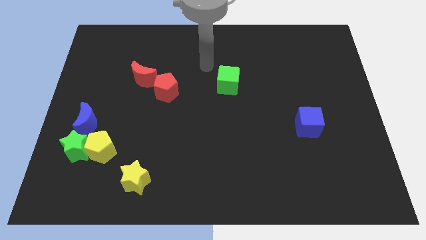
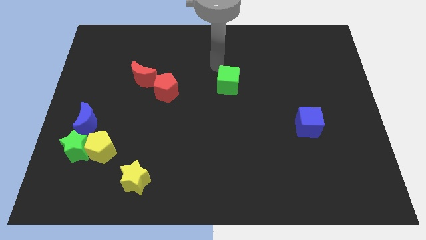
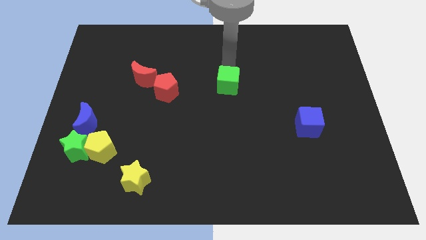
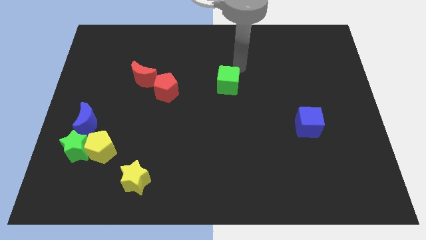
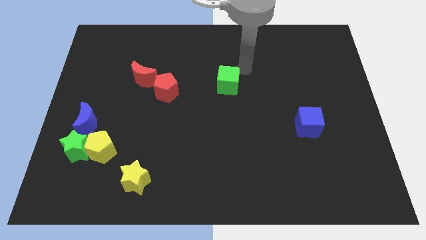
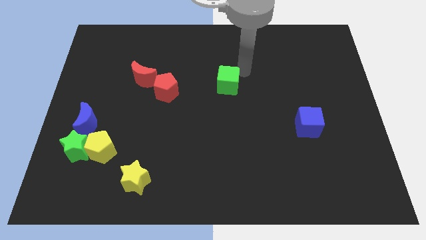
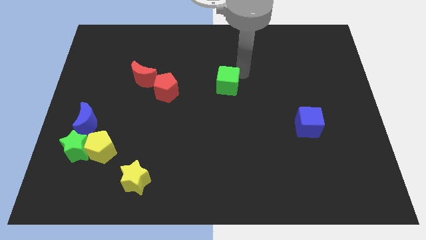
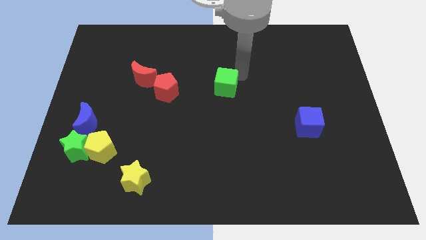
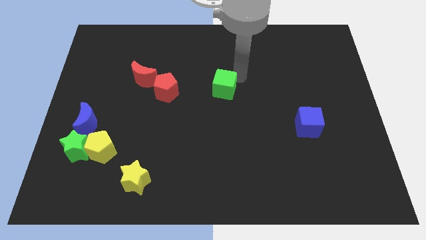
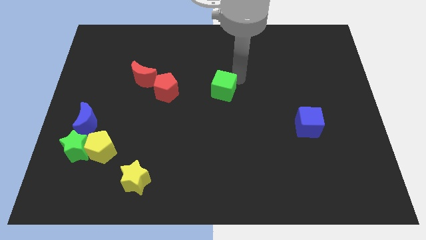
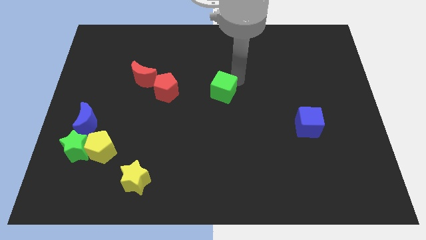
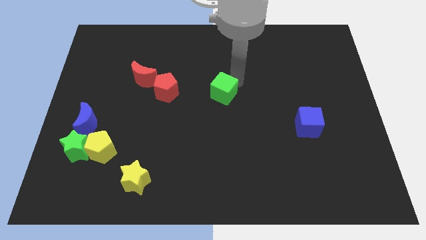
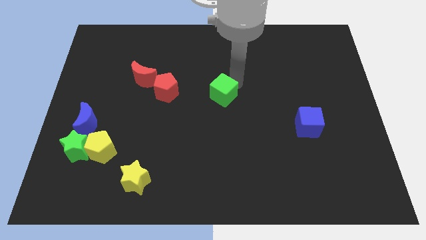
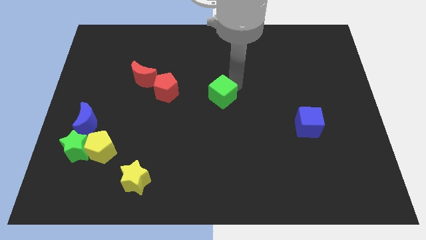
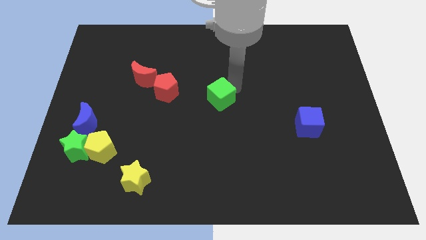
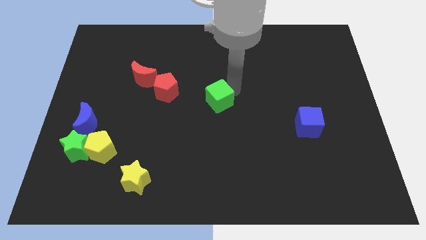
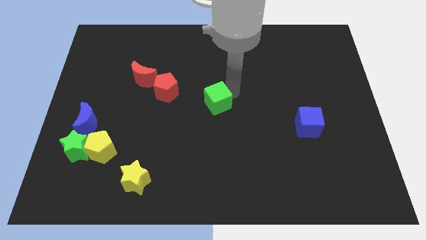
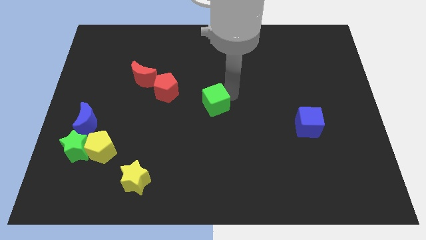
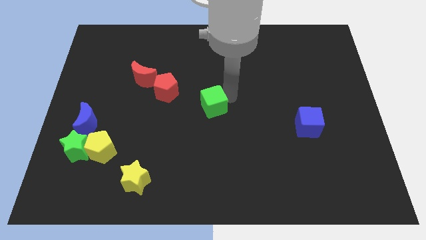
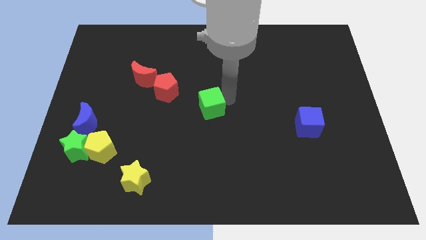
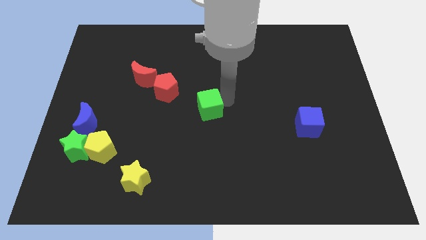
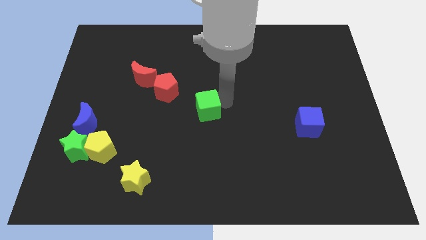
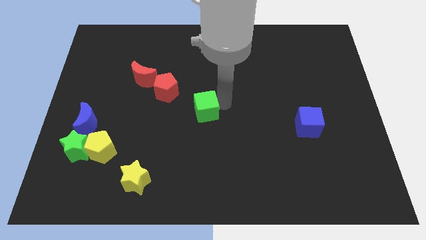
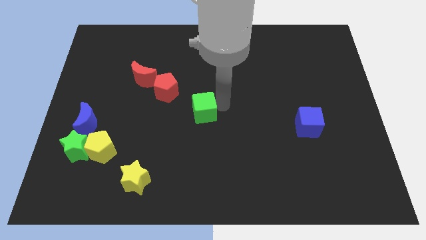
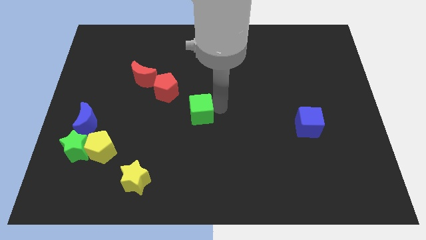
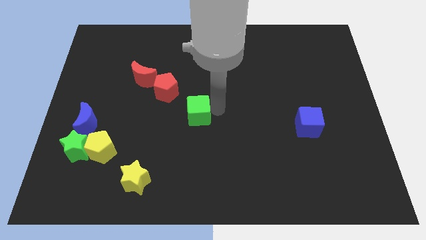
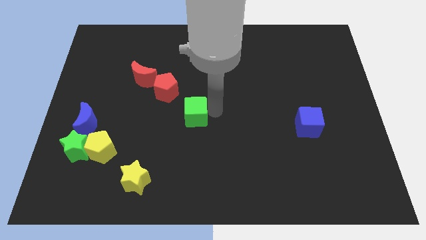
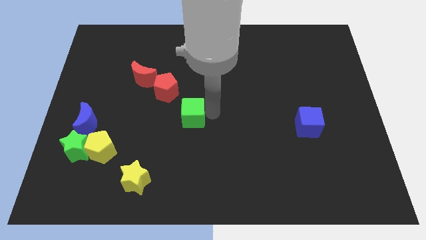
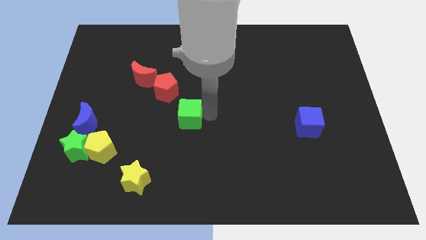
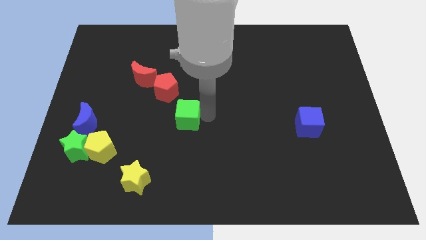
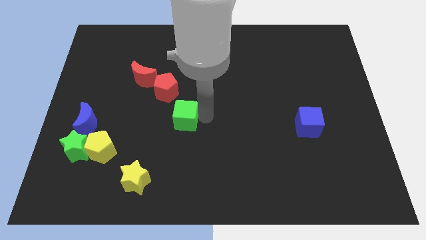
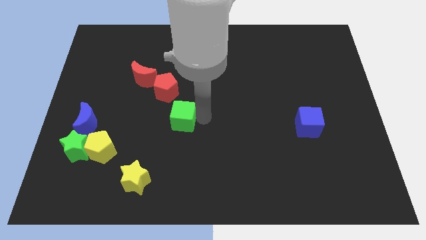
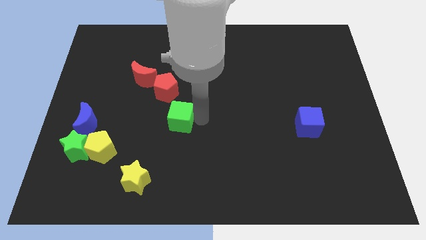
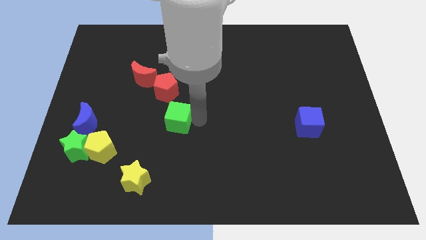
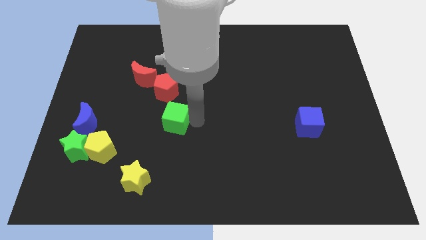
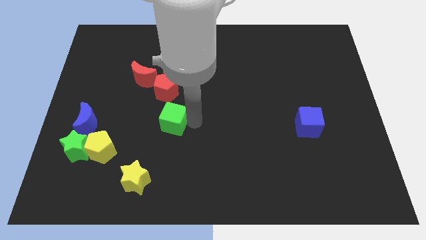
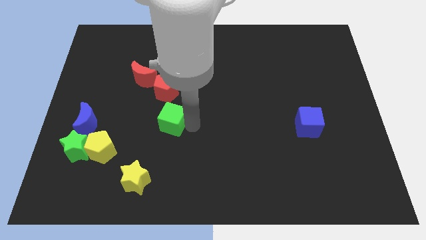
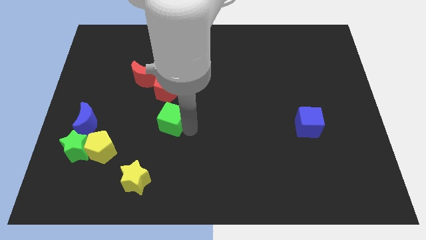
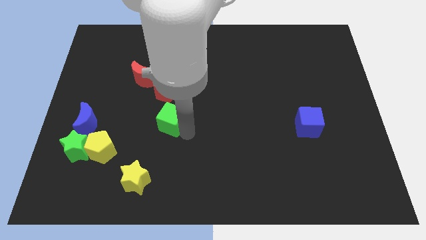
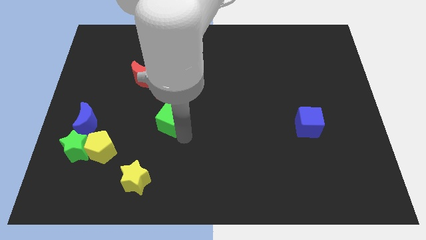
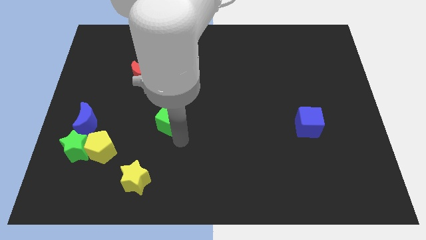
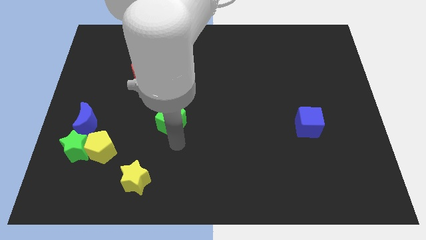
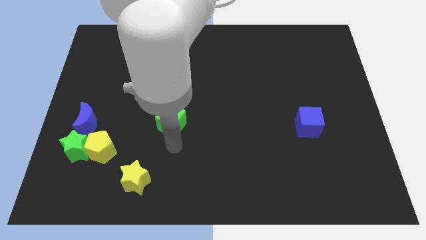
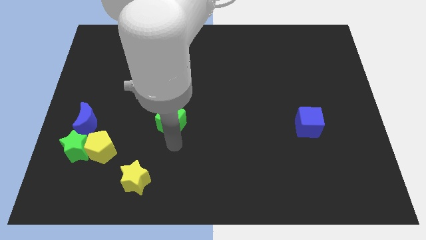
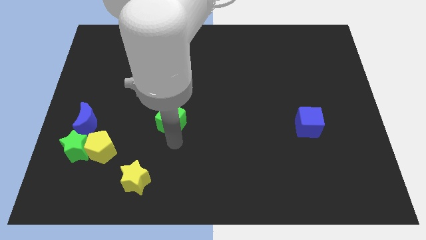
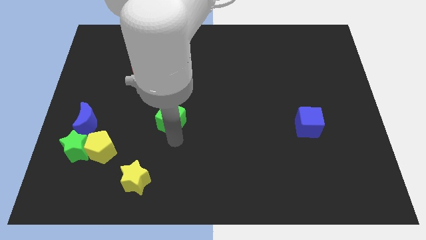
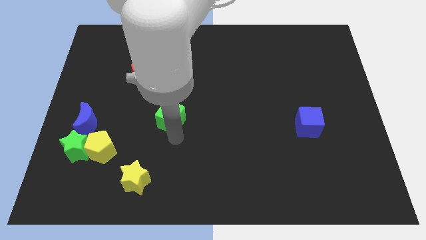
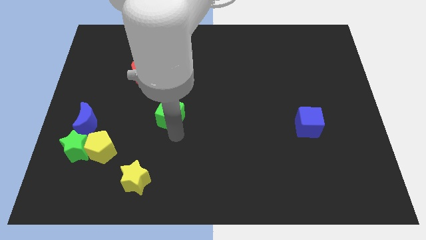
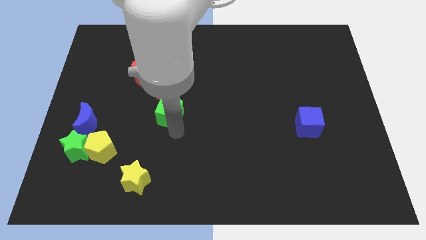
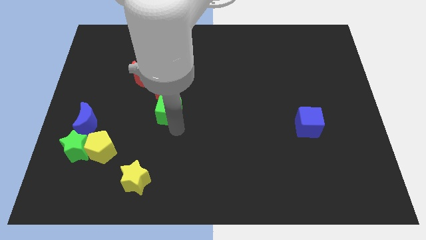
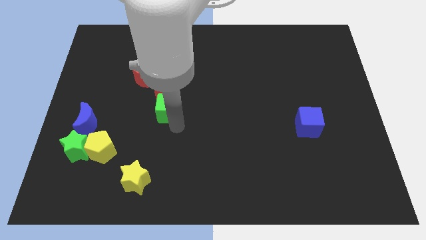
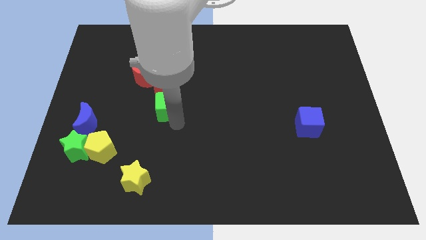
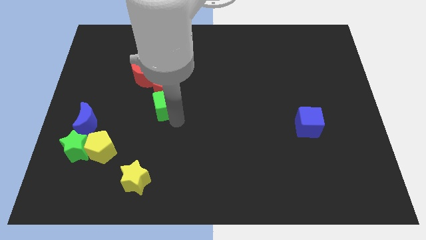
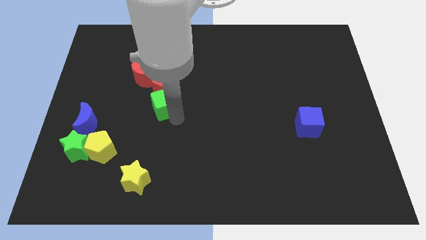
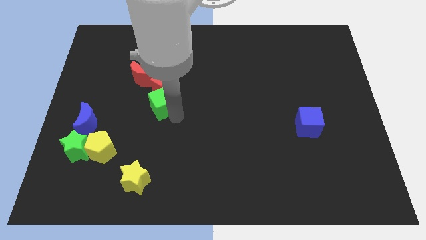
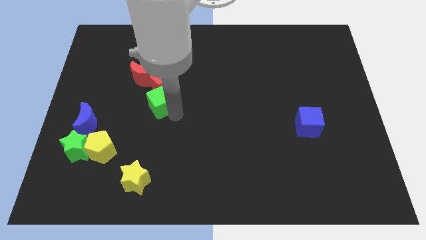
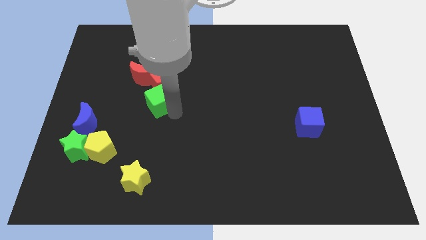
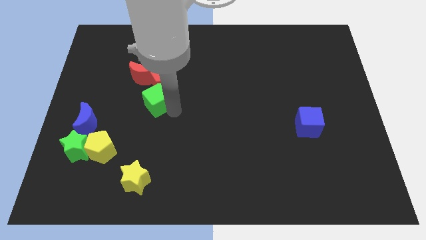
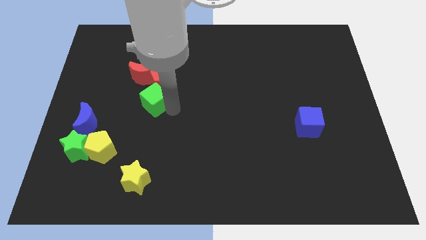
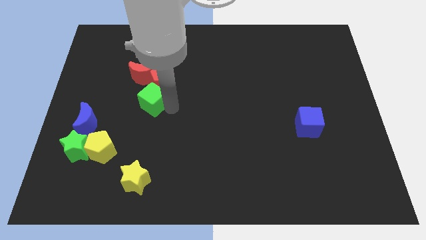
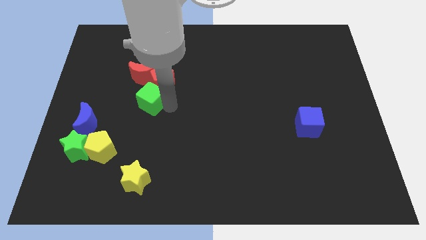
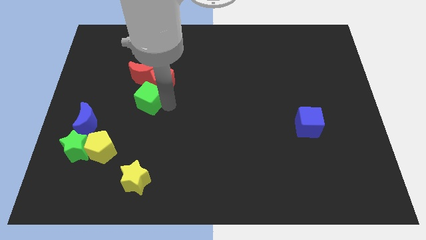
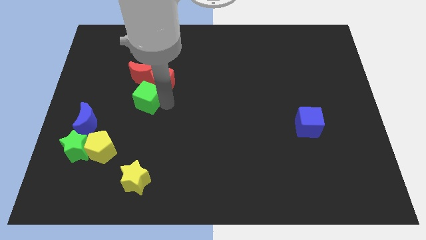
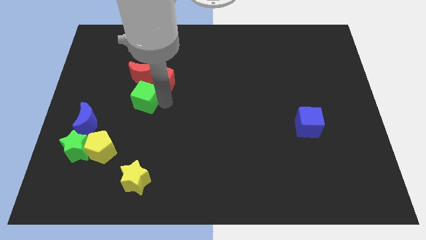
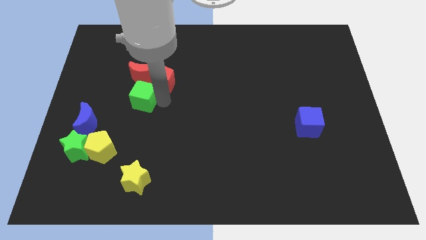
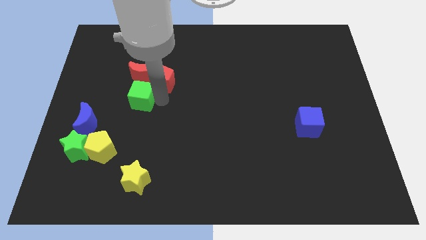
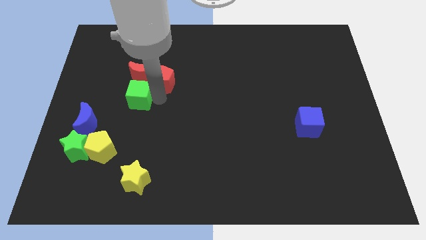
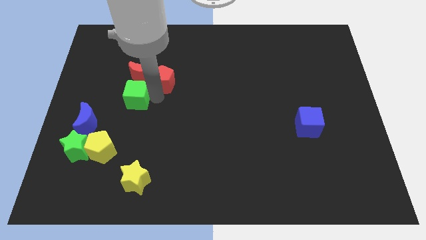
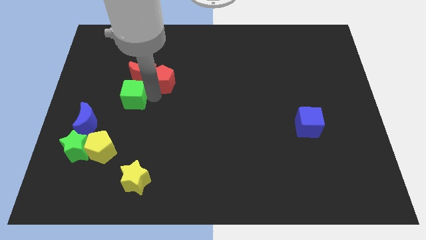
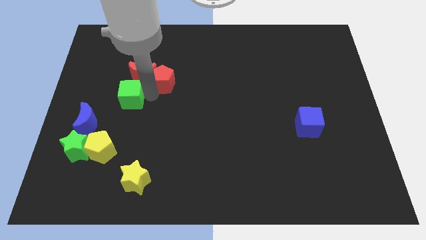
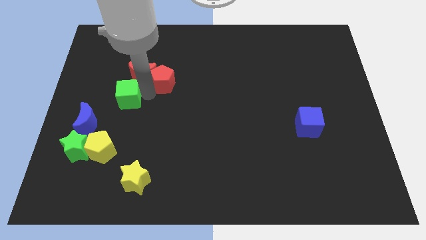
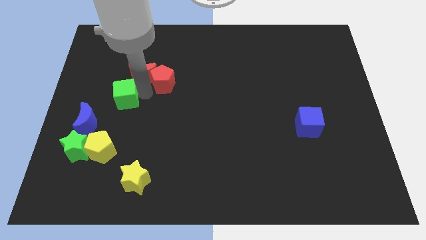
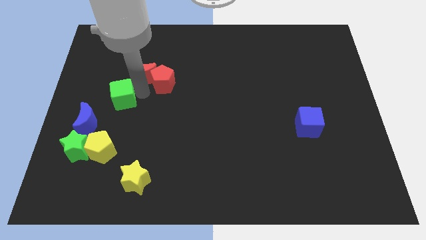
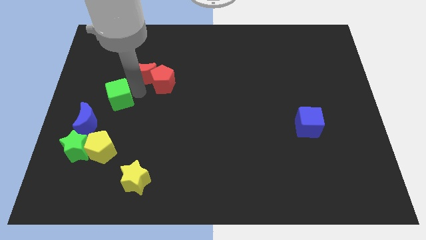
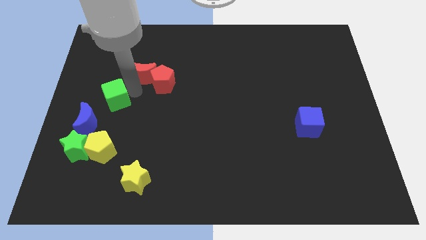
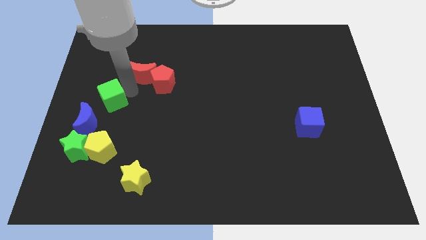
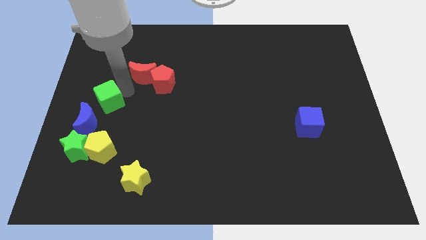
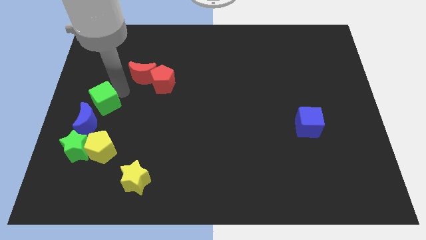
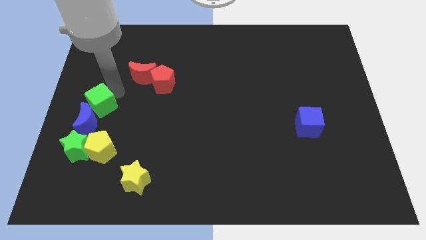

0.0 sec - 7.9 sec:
push the green cube close to the blue moon

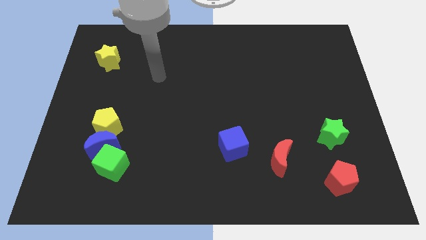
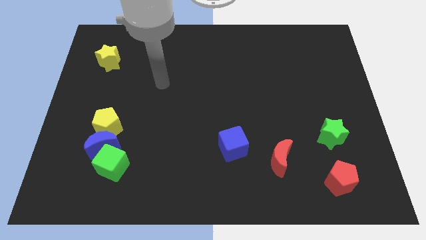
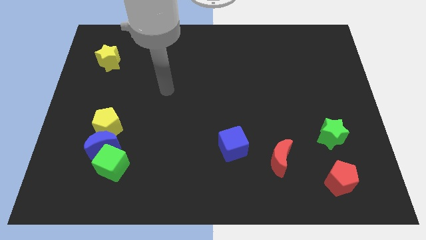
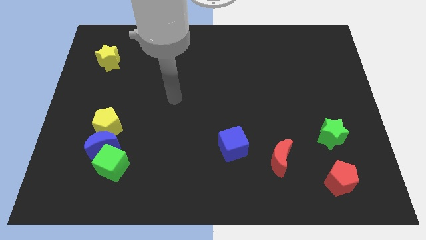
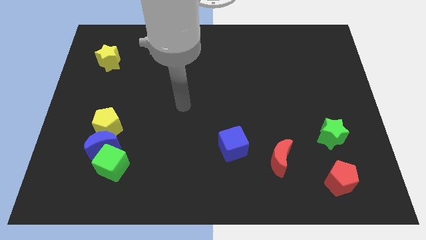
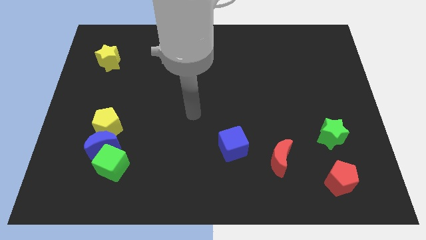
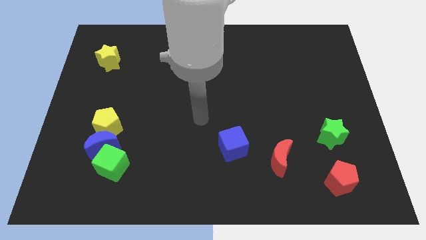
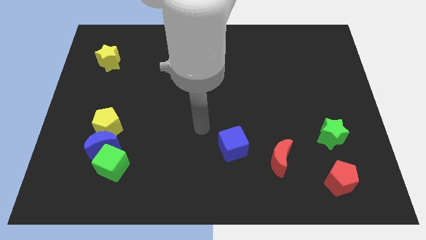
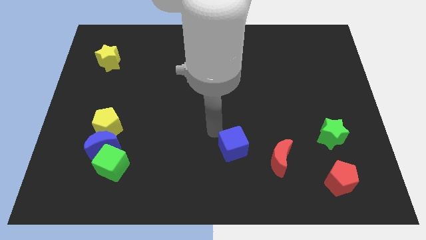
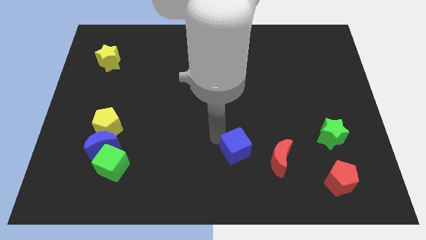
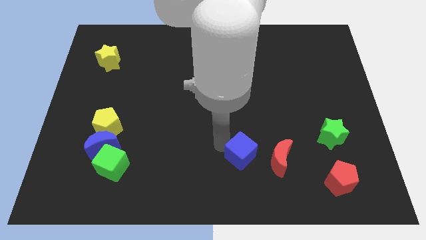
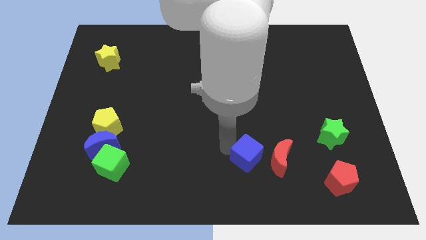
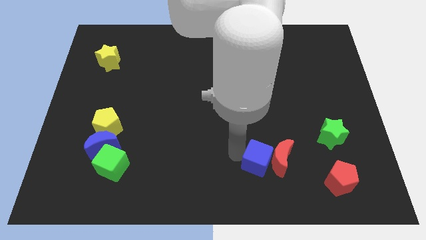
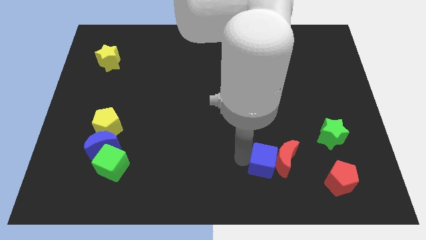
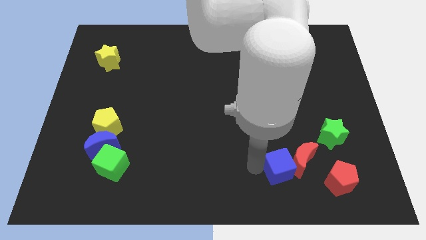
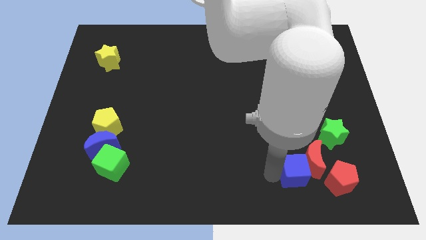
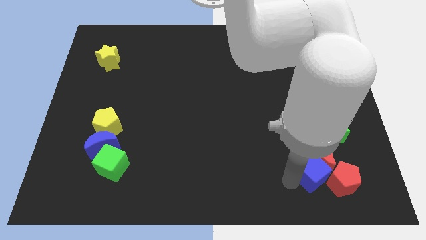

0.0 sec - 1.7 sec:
push the red moon towards the green star
